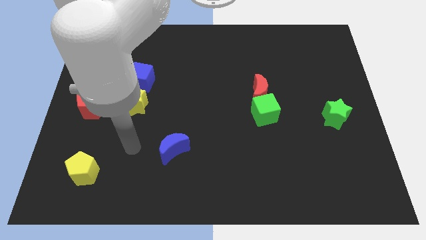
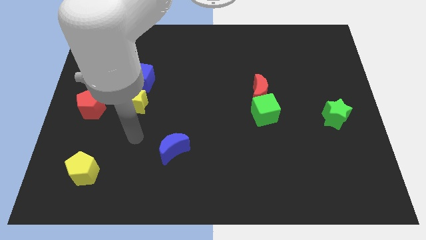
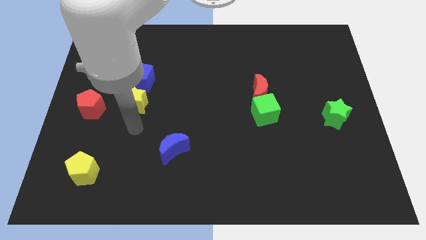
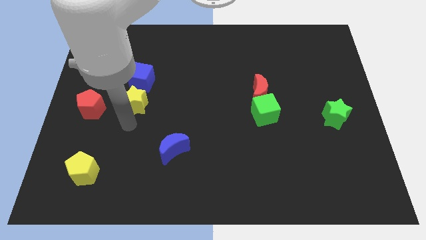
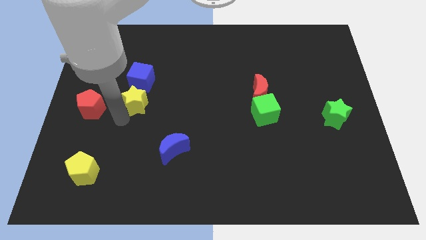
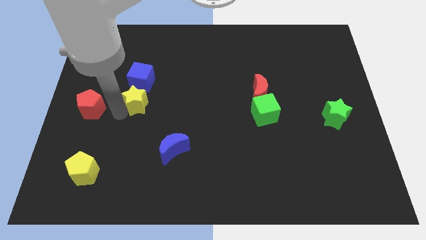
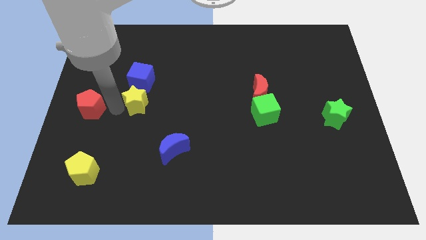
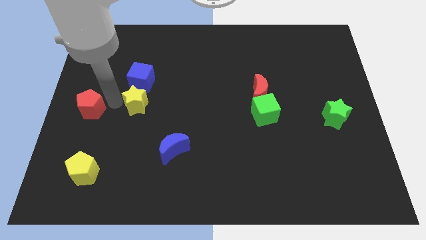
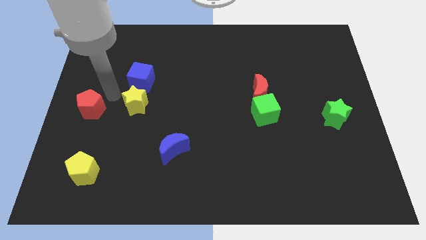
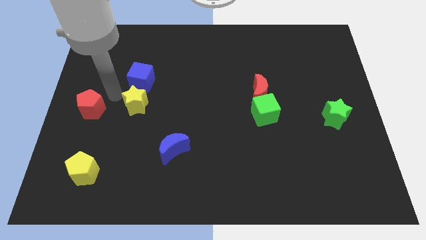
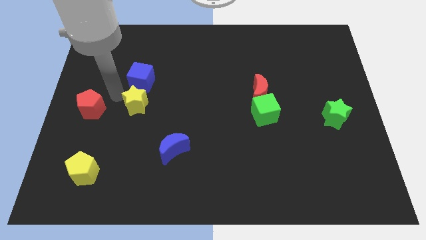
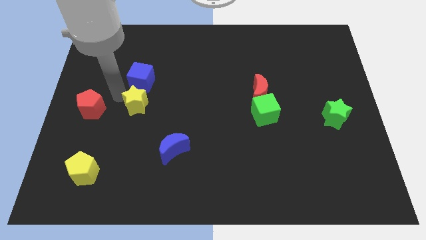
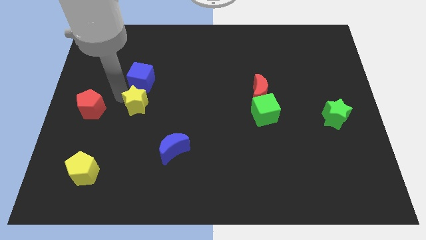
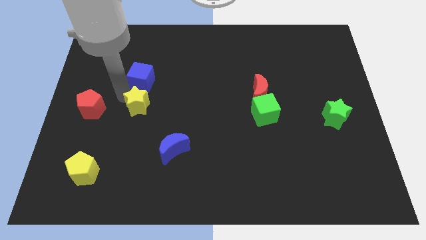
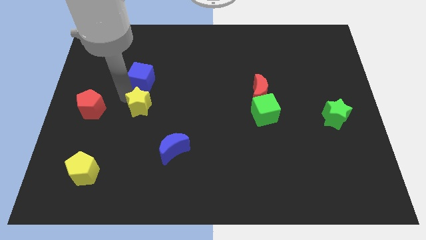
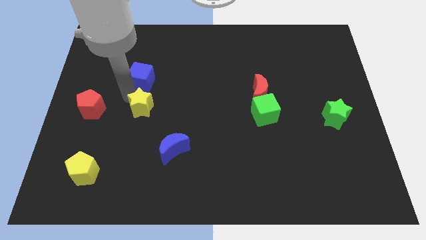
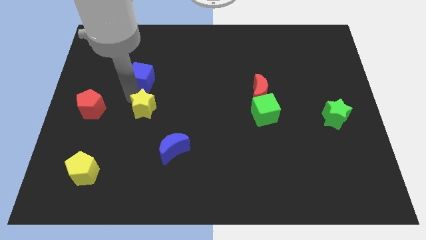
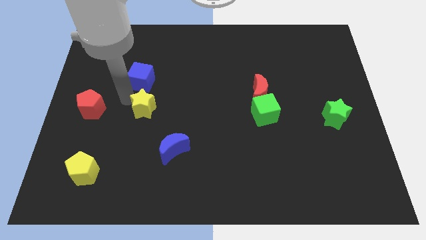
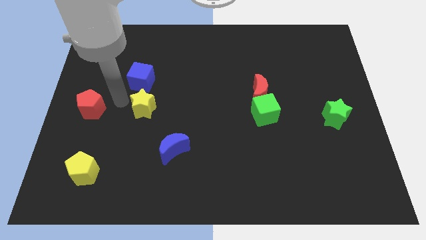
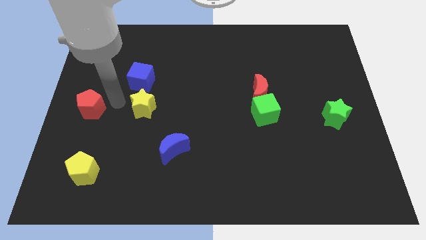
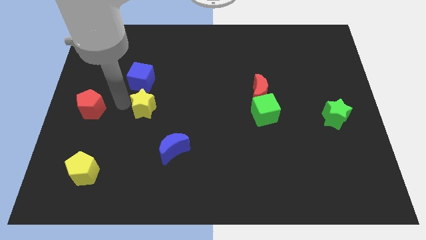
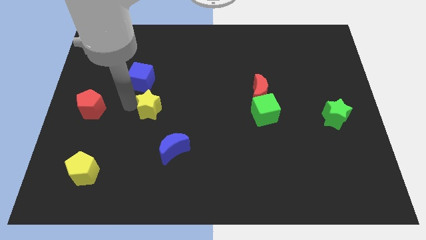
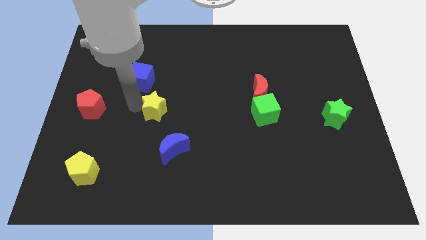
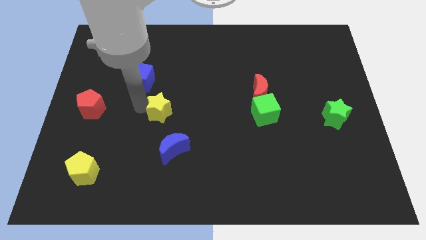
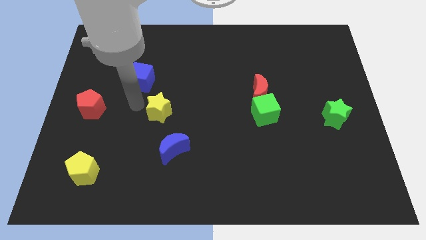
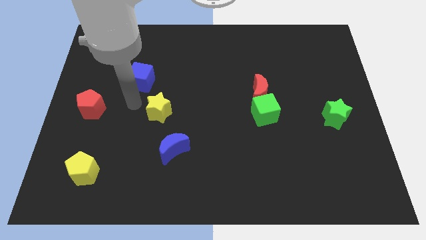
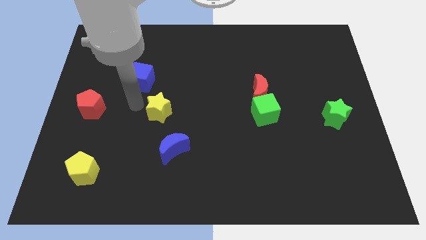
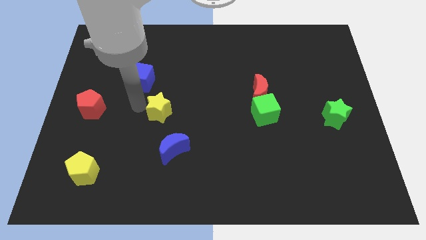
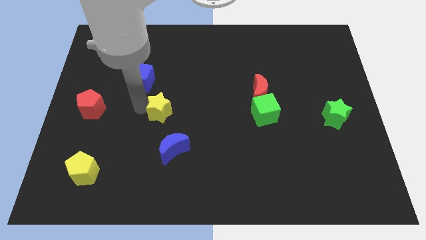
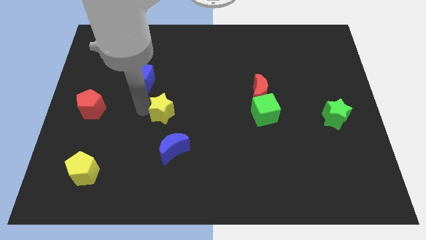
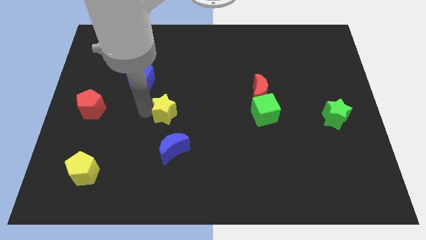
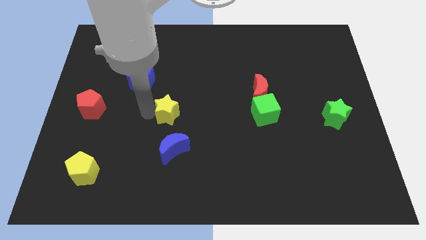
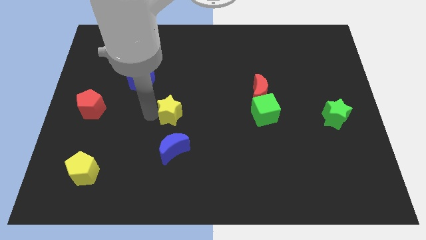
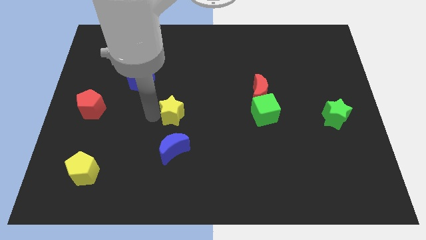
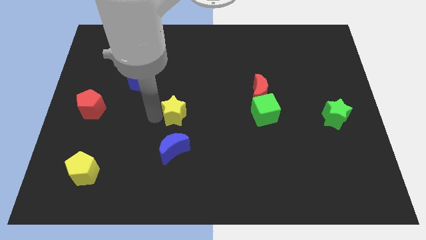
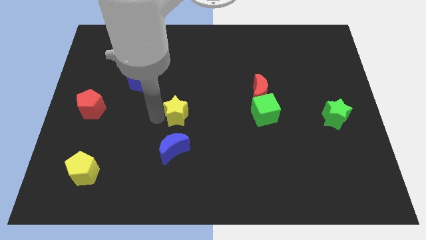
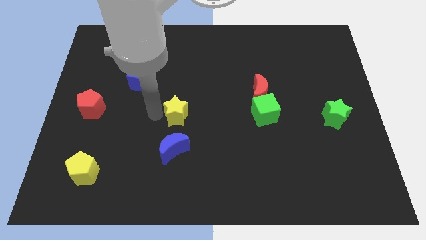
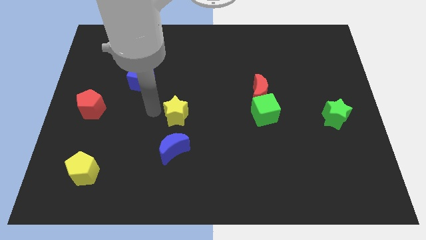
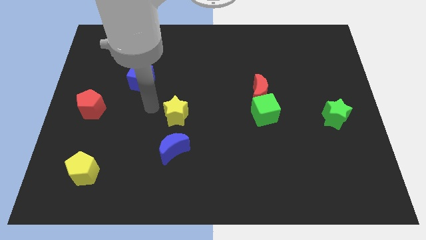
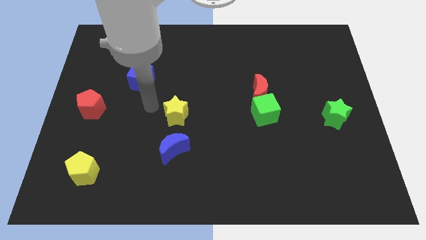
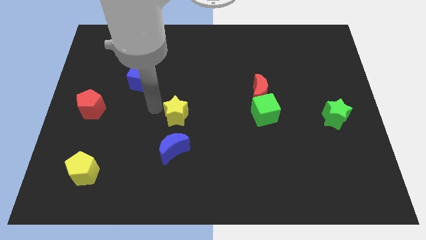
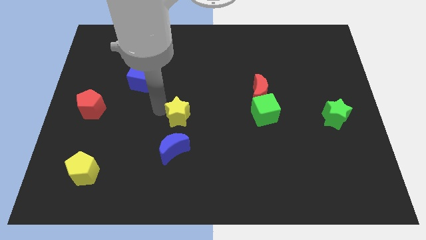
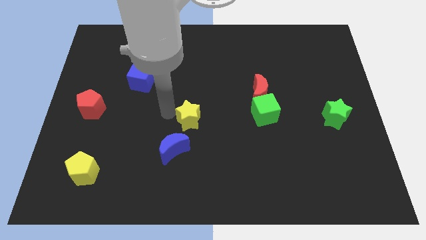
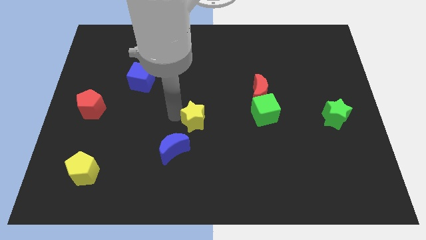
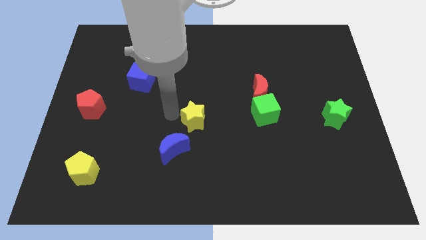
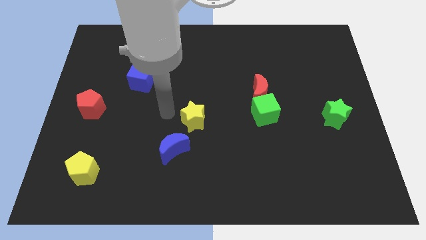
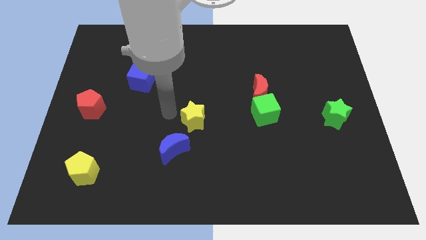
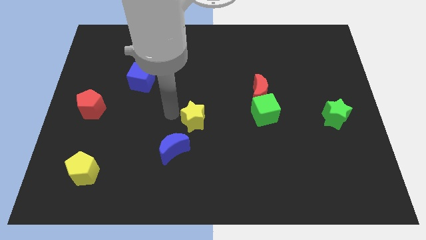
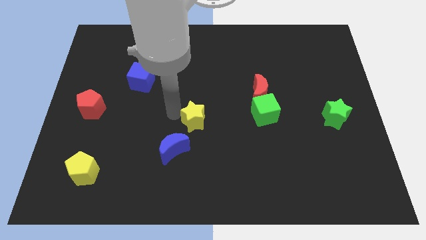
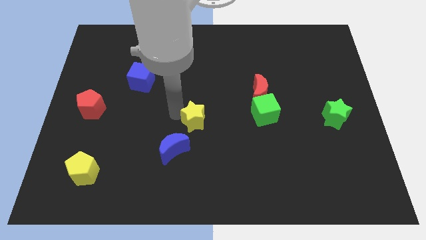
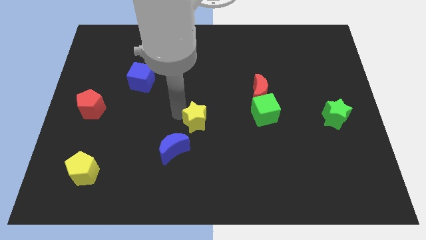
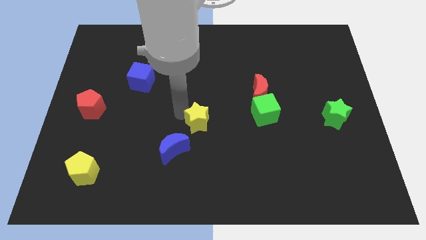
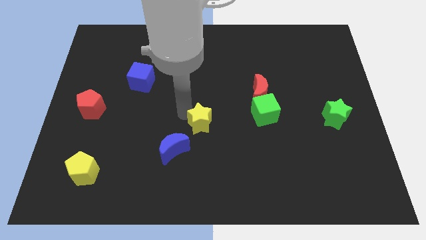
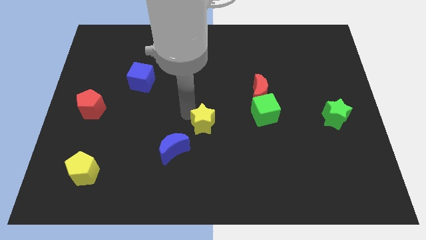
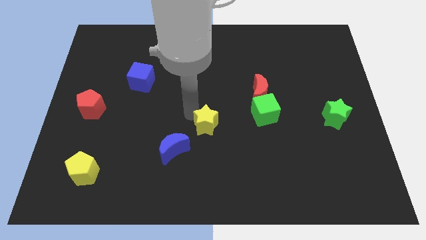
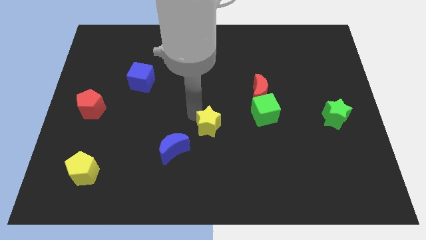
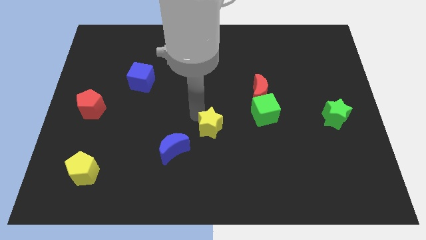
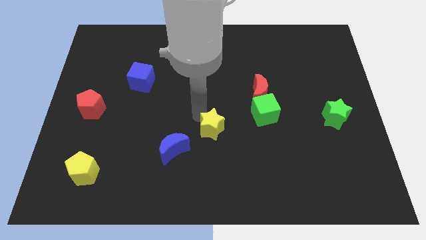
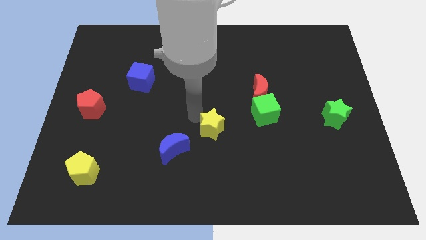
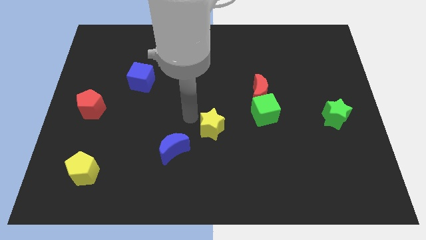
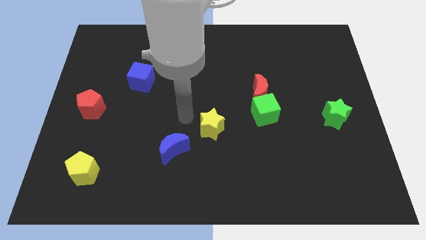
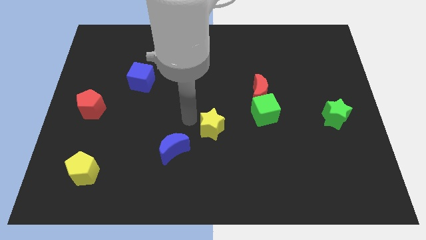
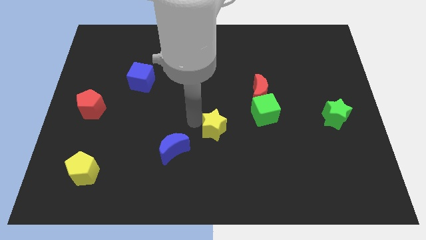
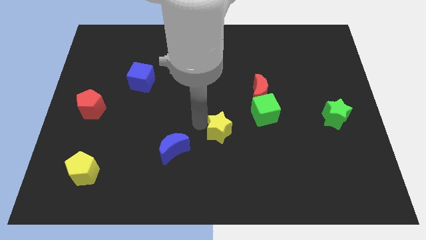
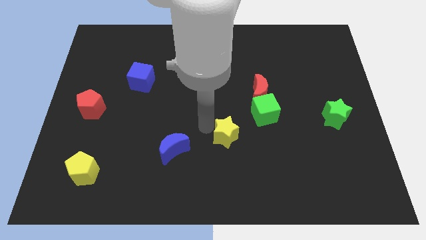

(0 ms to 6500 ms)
move the yellow star diagonally down and to the left of the green cube
